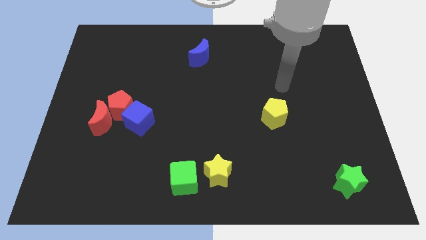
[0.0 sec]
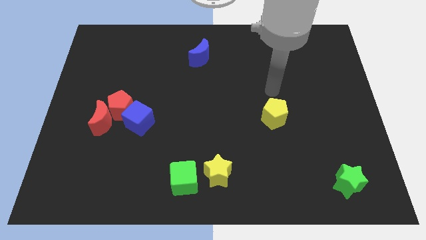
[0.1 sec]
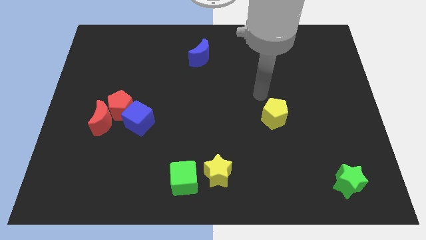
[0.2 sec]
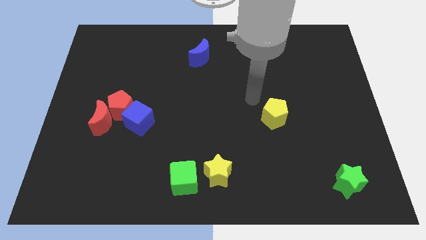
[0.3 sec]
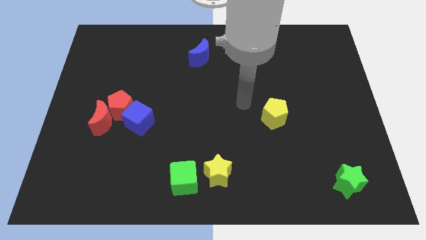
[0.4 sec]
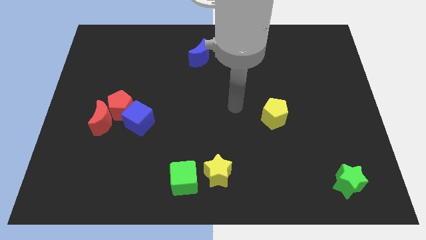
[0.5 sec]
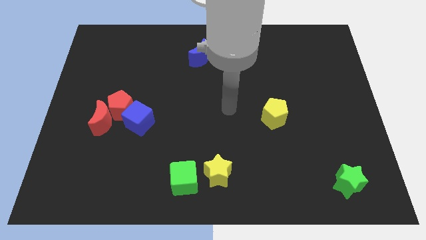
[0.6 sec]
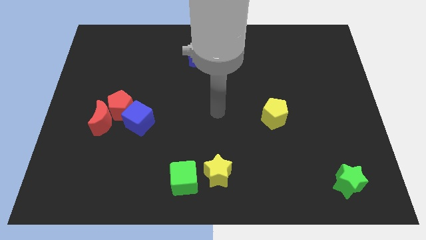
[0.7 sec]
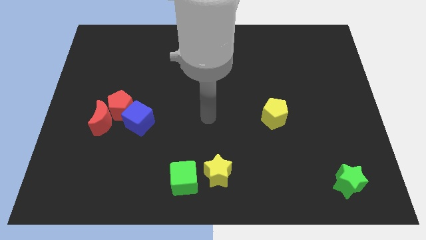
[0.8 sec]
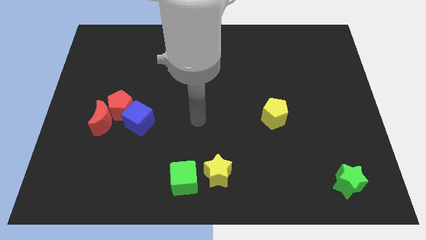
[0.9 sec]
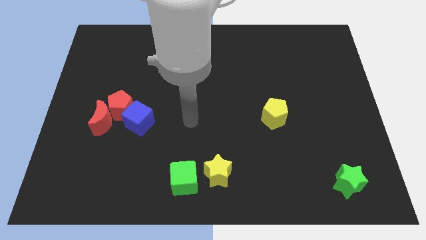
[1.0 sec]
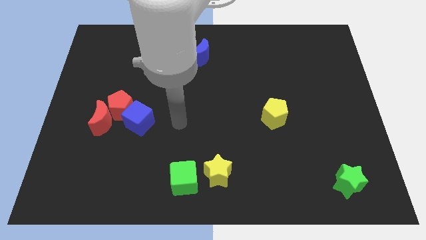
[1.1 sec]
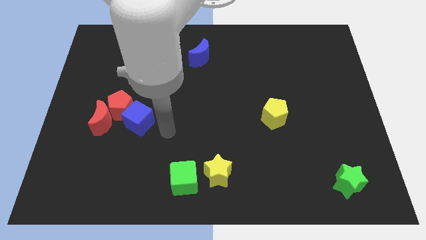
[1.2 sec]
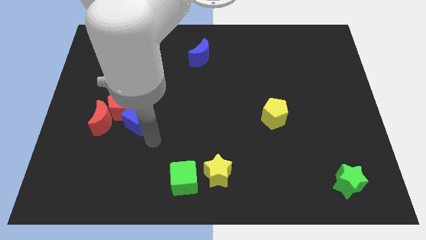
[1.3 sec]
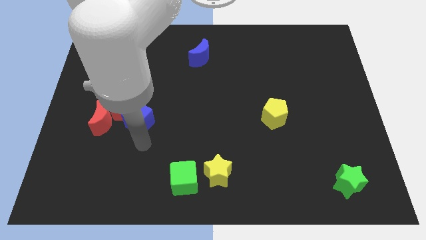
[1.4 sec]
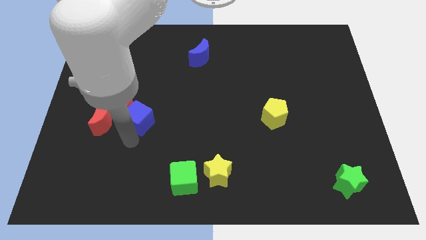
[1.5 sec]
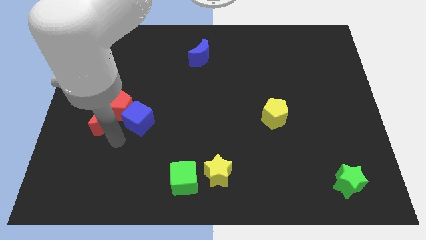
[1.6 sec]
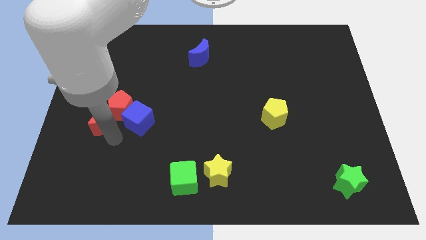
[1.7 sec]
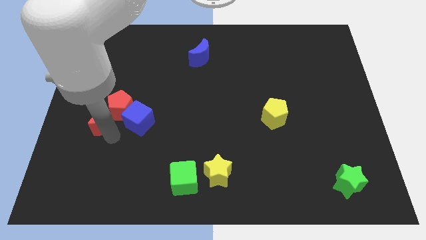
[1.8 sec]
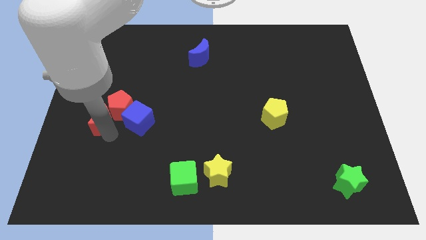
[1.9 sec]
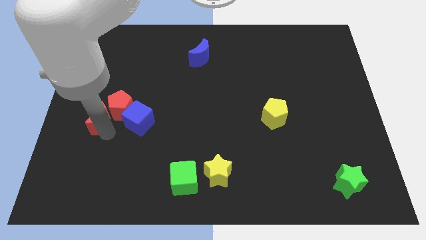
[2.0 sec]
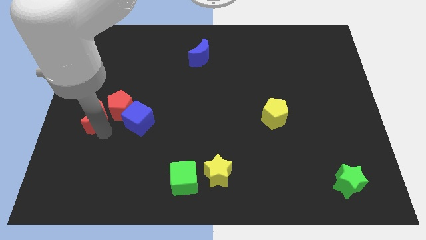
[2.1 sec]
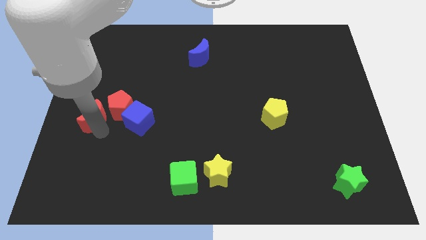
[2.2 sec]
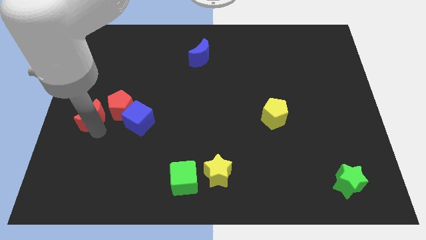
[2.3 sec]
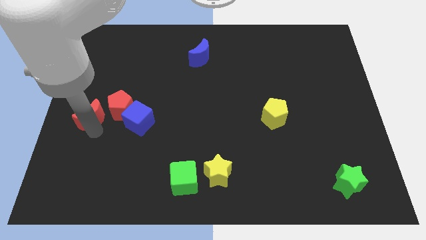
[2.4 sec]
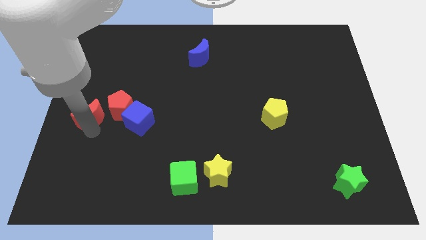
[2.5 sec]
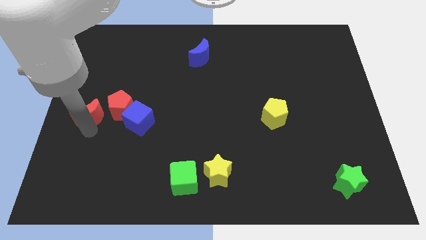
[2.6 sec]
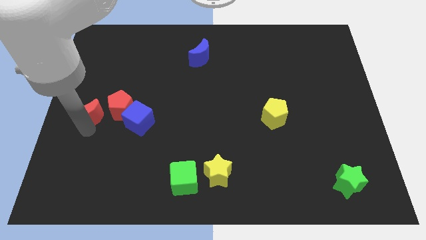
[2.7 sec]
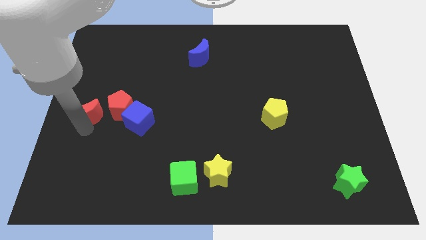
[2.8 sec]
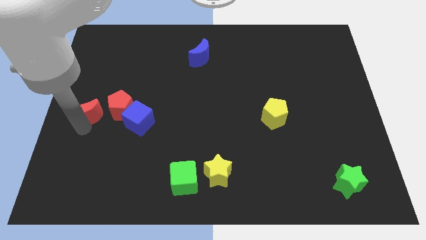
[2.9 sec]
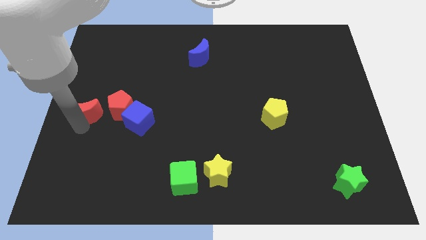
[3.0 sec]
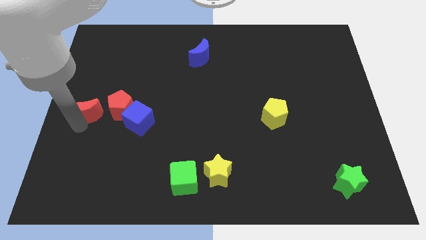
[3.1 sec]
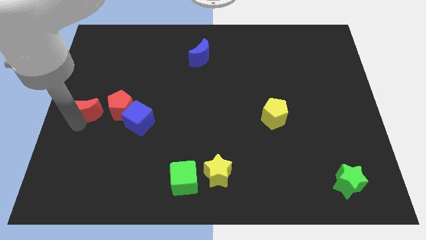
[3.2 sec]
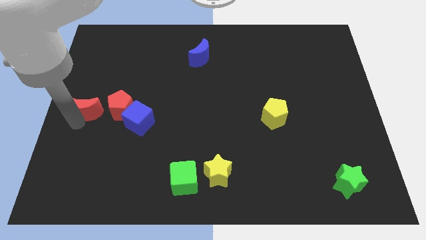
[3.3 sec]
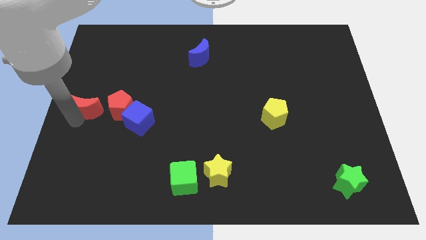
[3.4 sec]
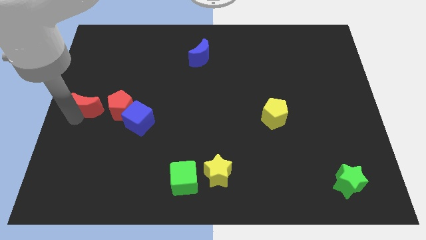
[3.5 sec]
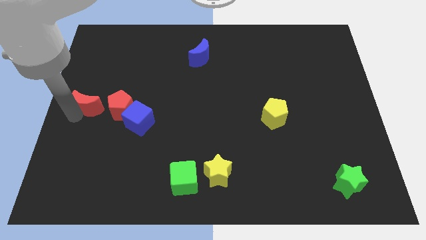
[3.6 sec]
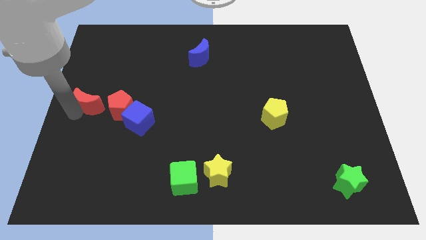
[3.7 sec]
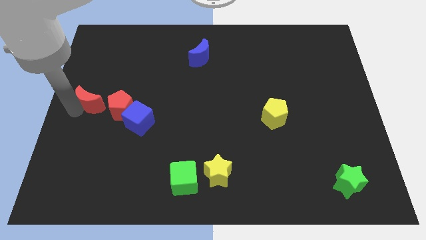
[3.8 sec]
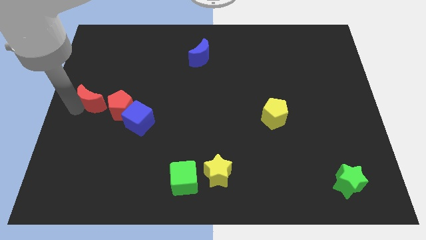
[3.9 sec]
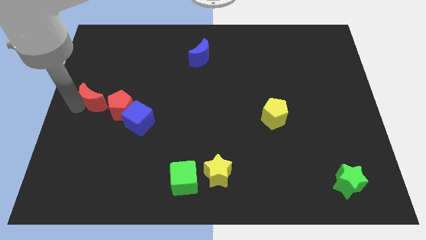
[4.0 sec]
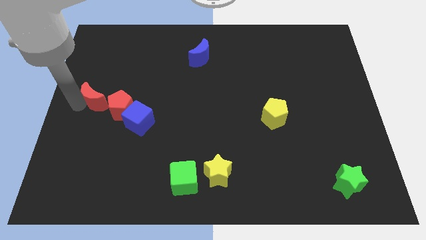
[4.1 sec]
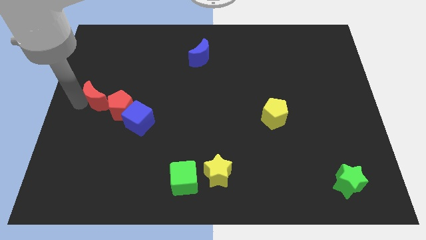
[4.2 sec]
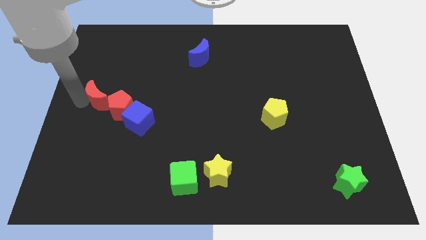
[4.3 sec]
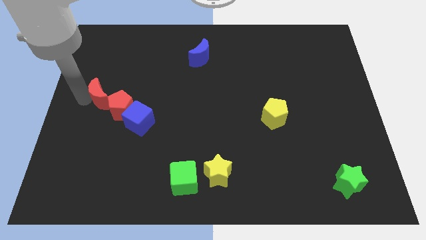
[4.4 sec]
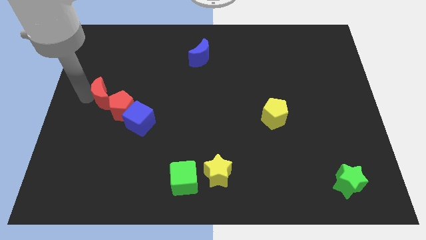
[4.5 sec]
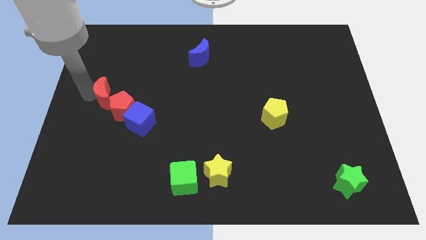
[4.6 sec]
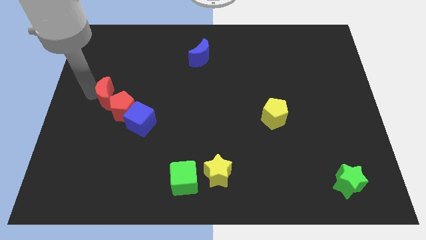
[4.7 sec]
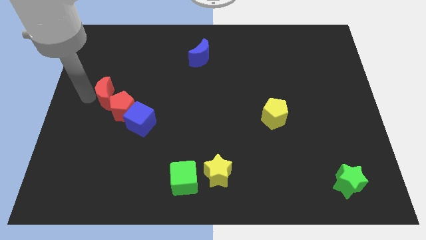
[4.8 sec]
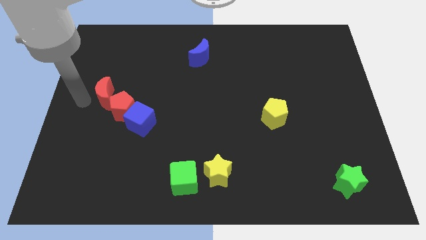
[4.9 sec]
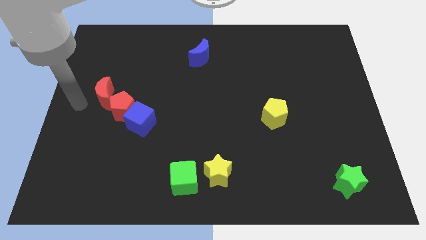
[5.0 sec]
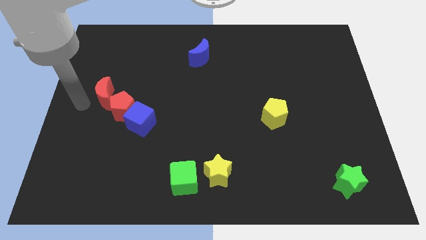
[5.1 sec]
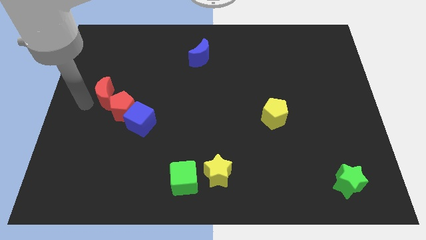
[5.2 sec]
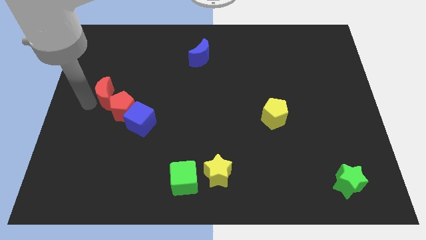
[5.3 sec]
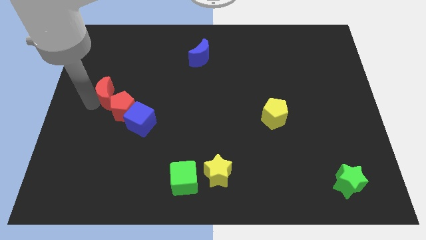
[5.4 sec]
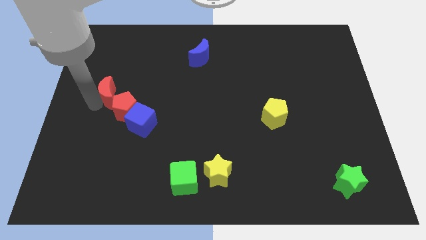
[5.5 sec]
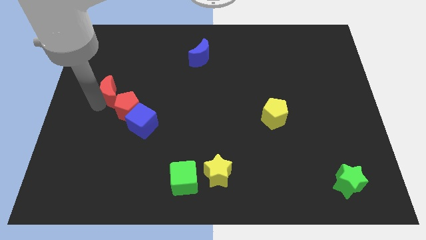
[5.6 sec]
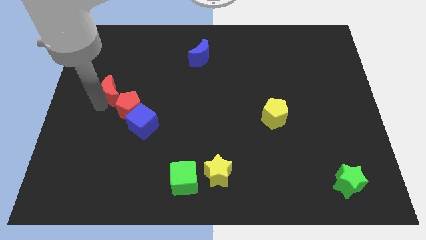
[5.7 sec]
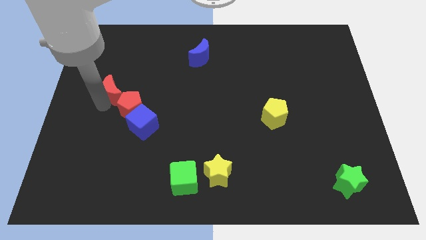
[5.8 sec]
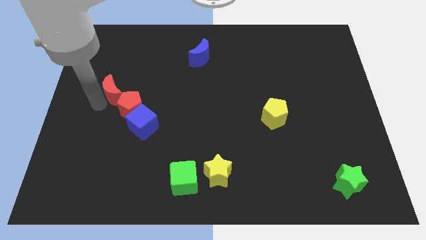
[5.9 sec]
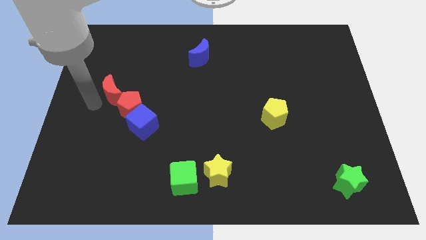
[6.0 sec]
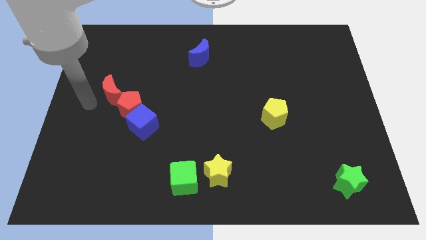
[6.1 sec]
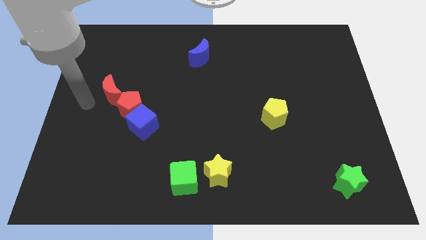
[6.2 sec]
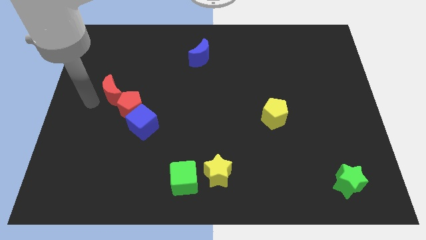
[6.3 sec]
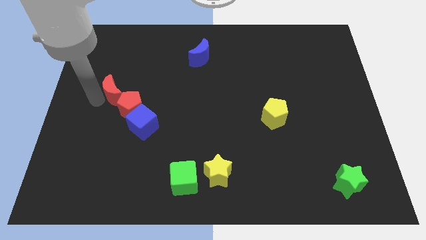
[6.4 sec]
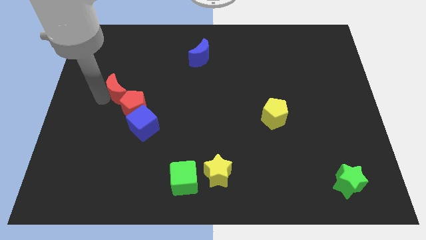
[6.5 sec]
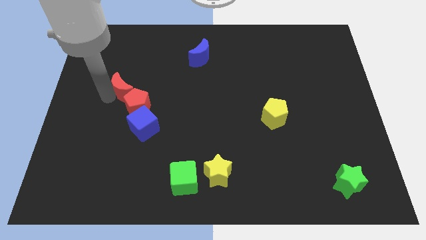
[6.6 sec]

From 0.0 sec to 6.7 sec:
slightly slide the red moon upwards and then right

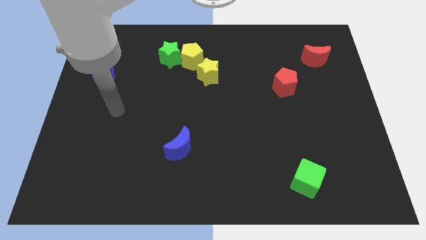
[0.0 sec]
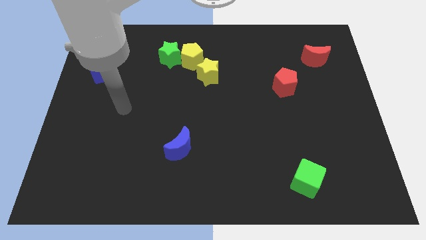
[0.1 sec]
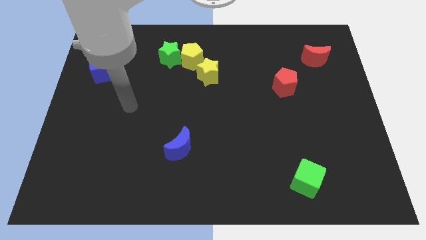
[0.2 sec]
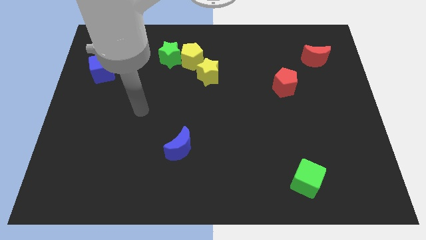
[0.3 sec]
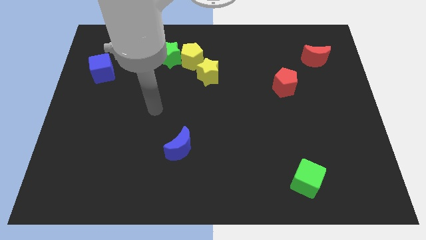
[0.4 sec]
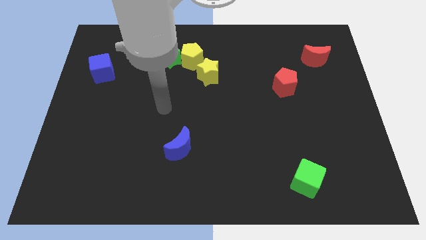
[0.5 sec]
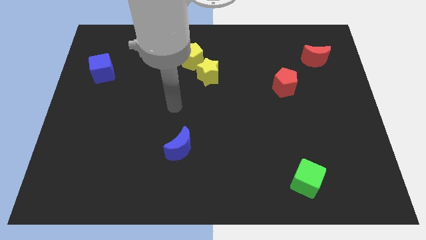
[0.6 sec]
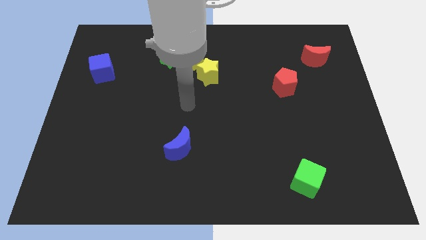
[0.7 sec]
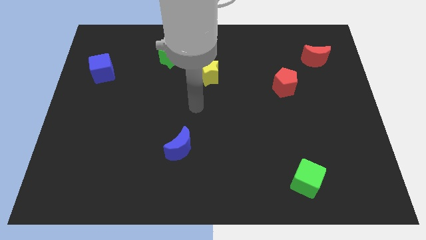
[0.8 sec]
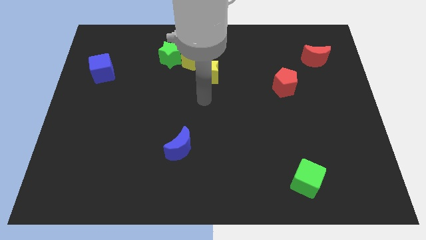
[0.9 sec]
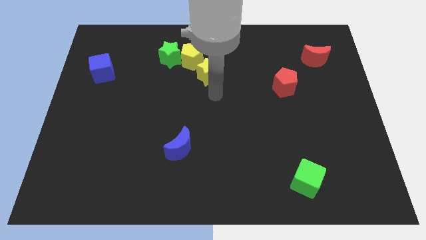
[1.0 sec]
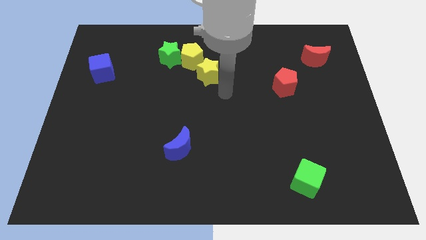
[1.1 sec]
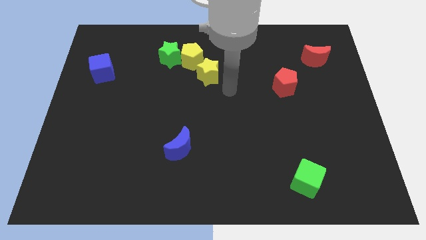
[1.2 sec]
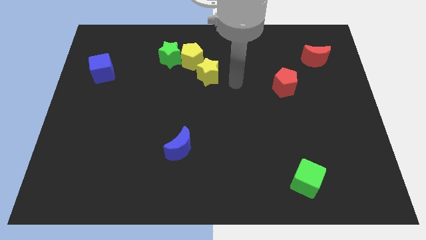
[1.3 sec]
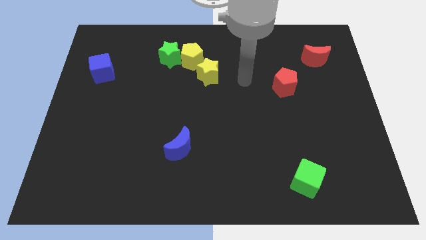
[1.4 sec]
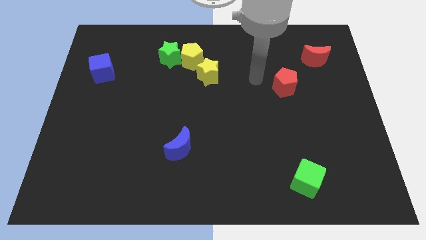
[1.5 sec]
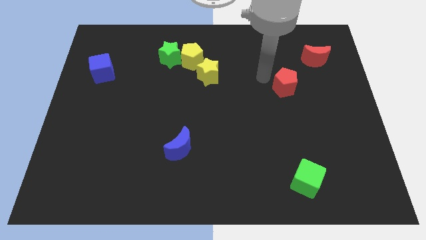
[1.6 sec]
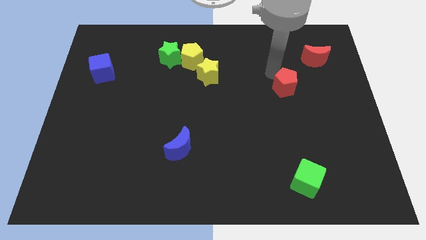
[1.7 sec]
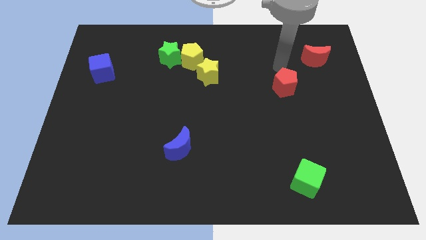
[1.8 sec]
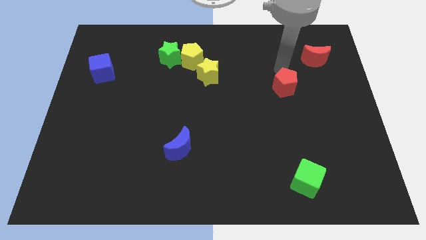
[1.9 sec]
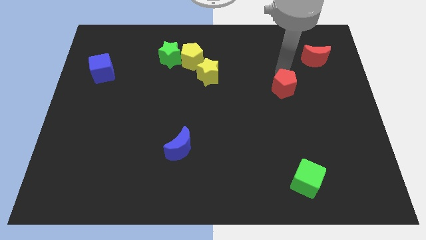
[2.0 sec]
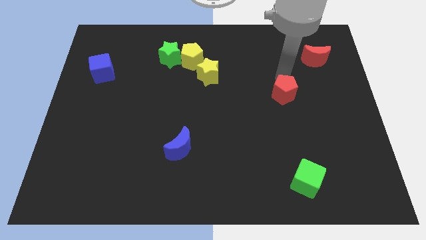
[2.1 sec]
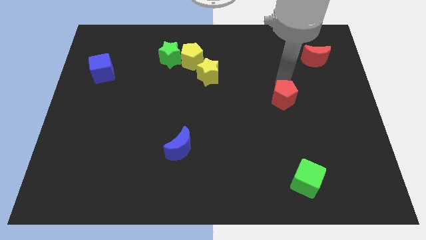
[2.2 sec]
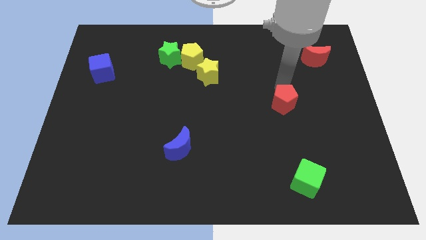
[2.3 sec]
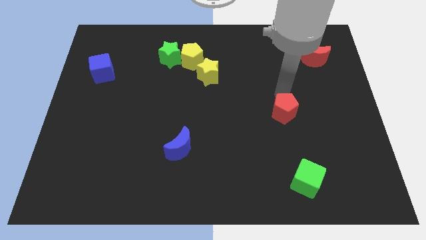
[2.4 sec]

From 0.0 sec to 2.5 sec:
slide the red pentagon somewhat down
